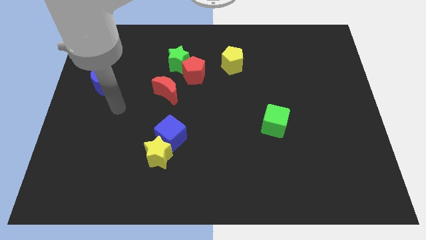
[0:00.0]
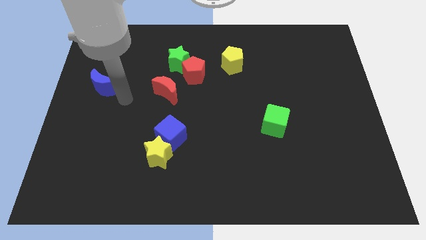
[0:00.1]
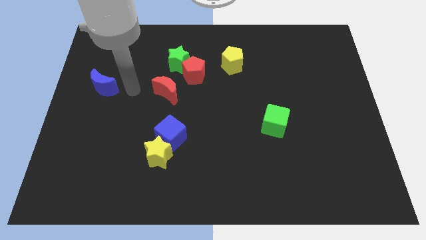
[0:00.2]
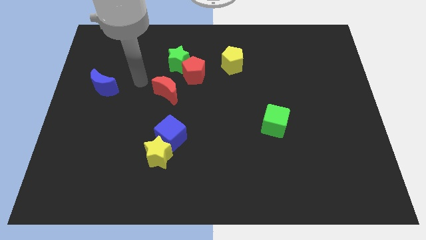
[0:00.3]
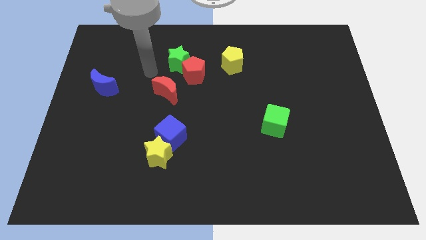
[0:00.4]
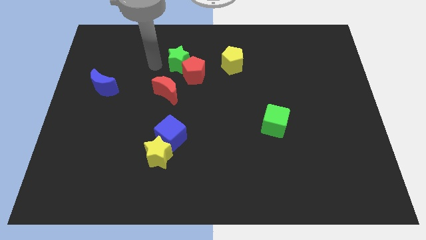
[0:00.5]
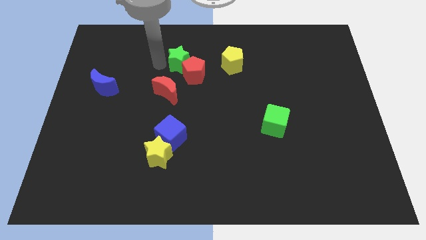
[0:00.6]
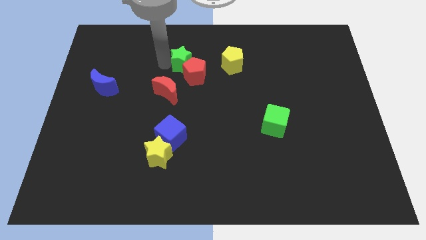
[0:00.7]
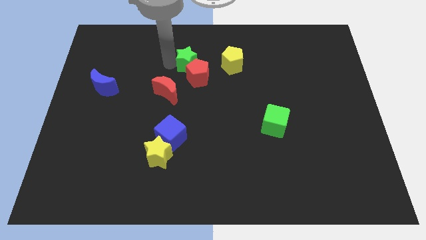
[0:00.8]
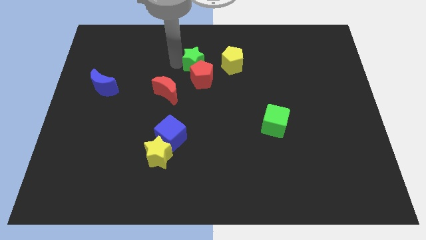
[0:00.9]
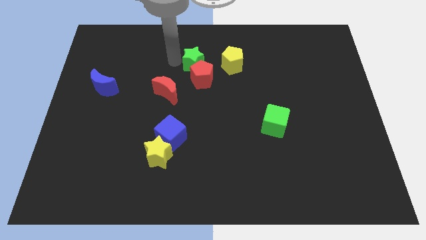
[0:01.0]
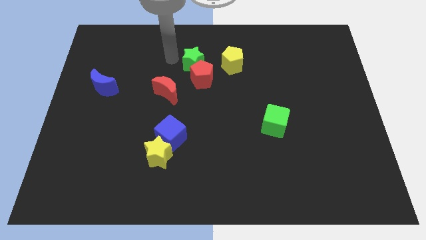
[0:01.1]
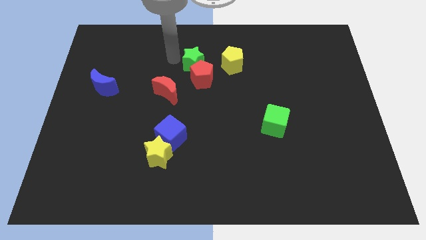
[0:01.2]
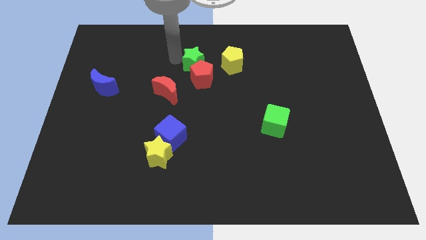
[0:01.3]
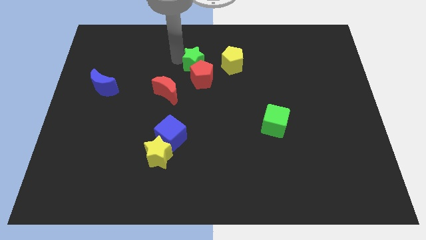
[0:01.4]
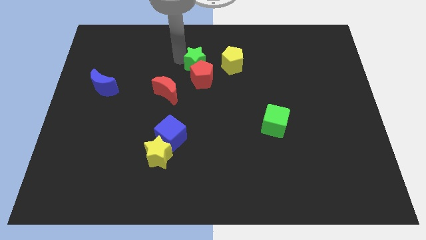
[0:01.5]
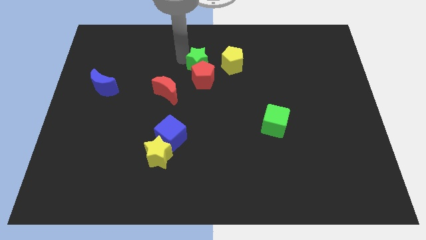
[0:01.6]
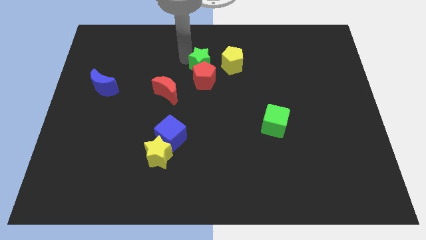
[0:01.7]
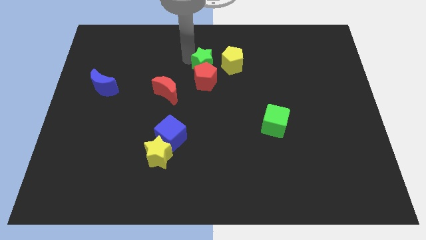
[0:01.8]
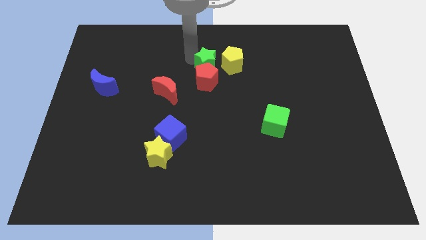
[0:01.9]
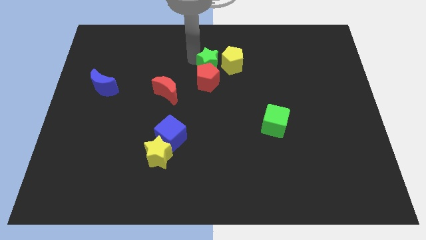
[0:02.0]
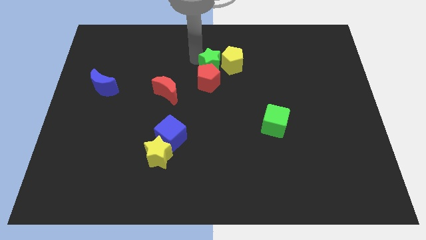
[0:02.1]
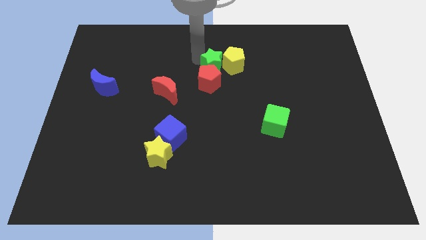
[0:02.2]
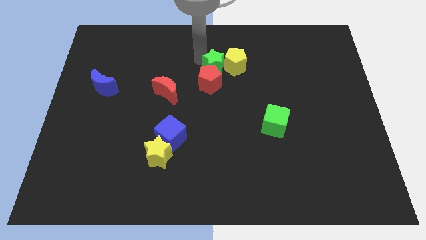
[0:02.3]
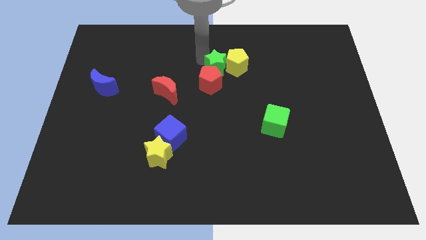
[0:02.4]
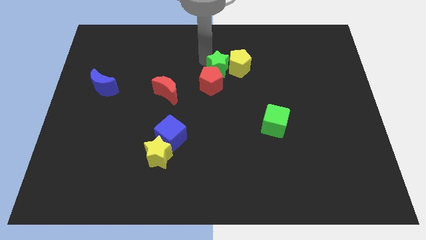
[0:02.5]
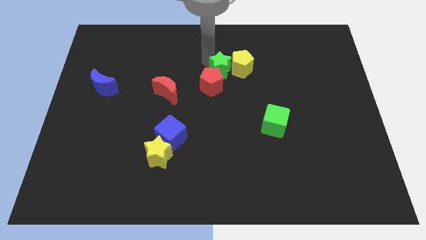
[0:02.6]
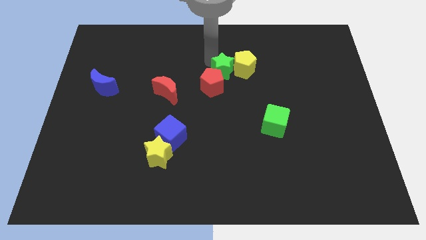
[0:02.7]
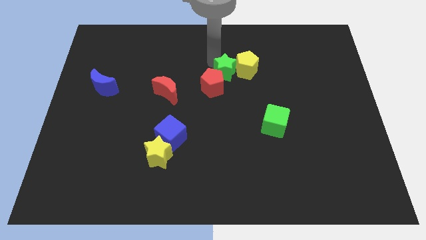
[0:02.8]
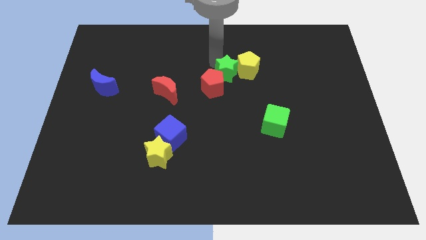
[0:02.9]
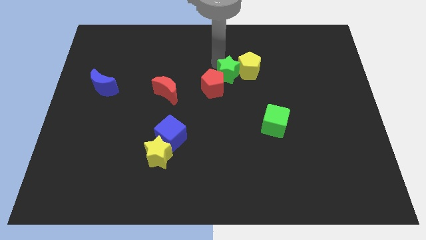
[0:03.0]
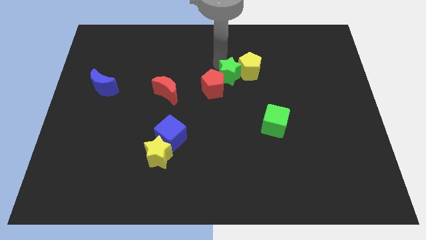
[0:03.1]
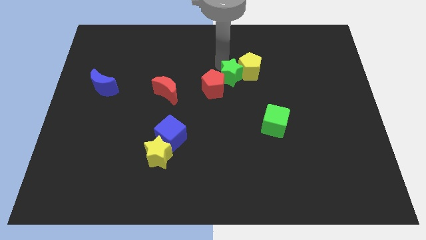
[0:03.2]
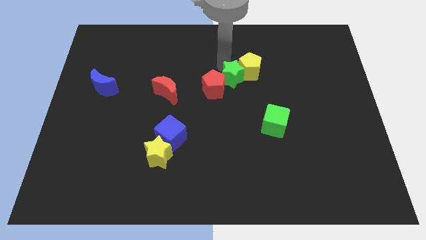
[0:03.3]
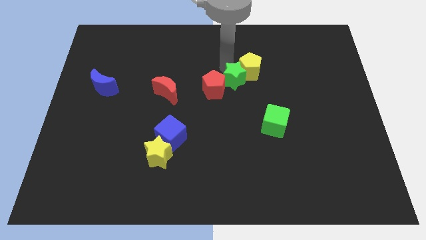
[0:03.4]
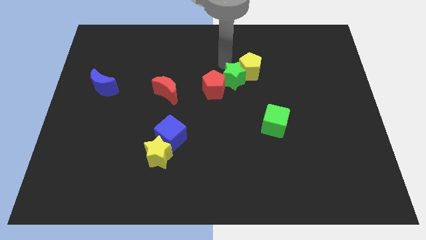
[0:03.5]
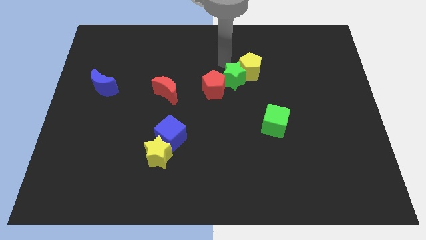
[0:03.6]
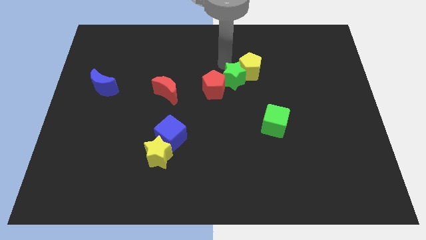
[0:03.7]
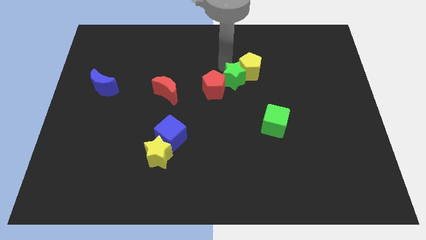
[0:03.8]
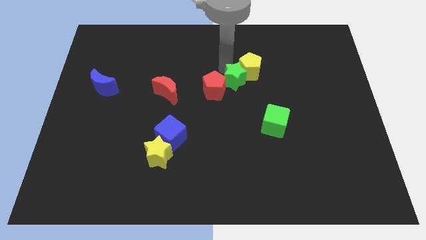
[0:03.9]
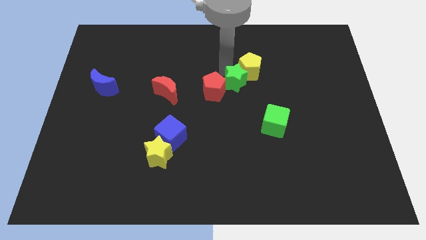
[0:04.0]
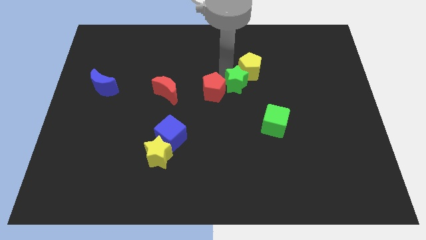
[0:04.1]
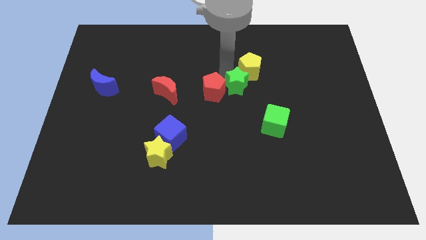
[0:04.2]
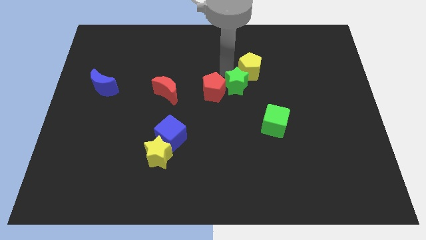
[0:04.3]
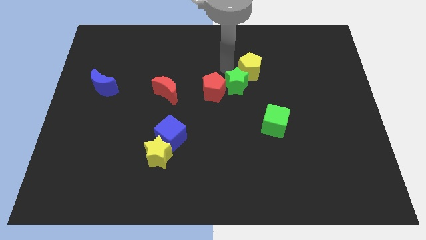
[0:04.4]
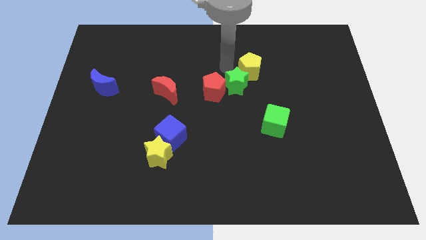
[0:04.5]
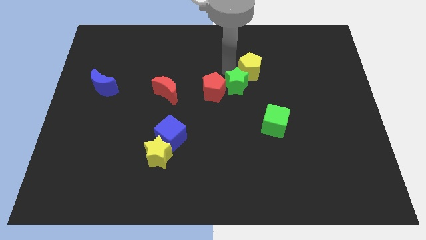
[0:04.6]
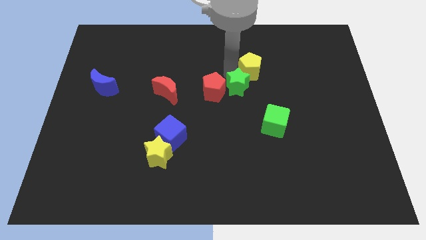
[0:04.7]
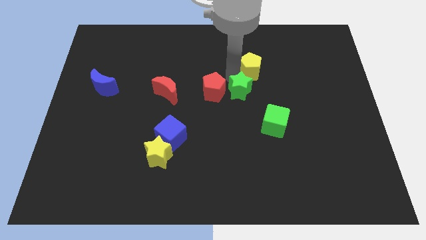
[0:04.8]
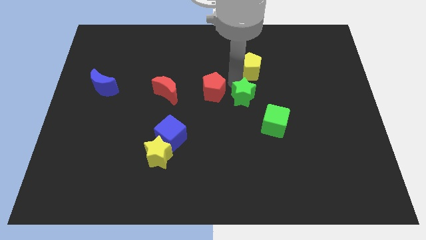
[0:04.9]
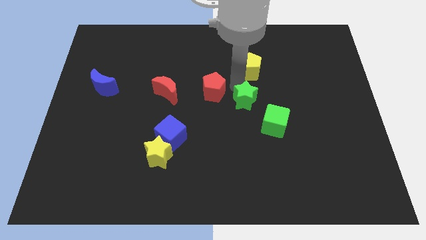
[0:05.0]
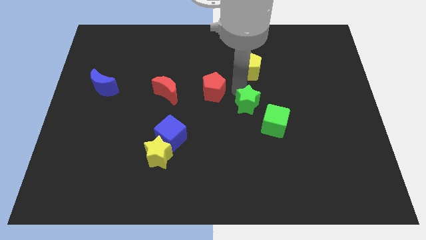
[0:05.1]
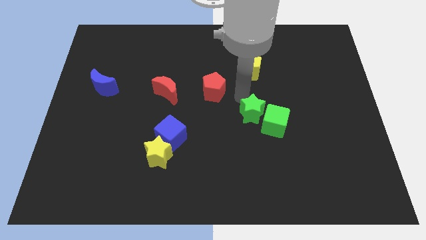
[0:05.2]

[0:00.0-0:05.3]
put the green star close to the green cube

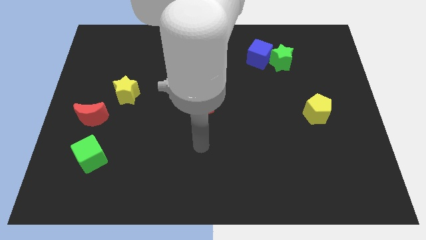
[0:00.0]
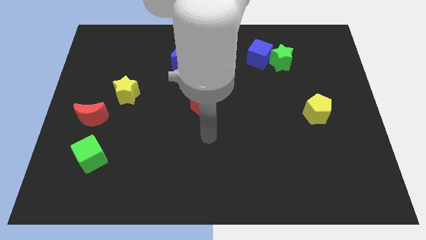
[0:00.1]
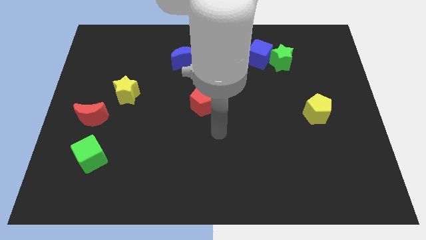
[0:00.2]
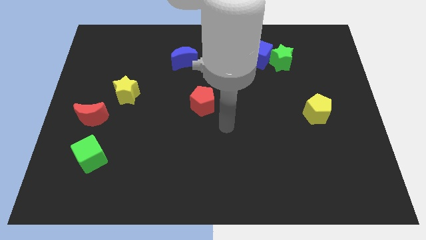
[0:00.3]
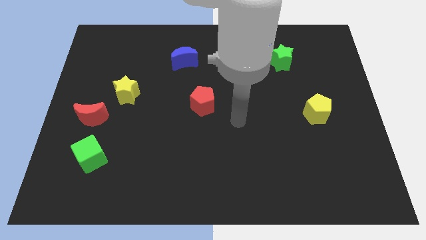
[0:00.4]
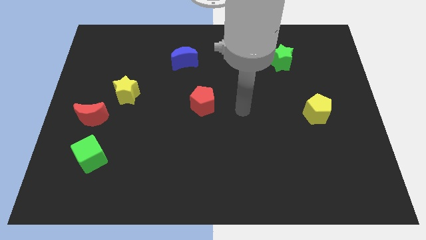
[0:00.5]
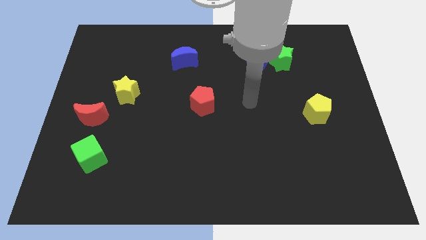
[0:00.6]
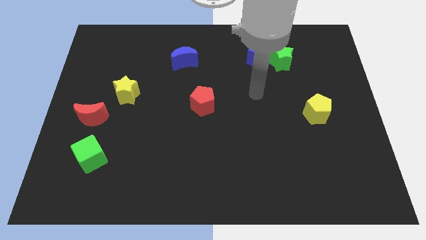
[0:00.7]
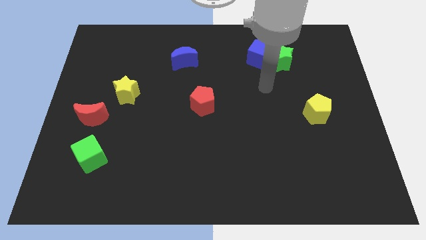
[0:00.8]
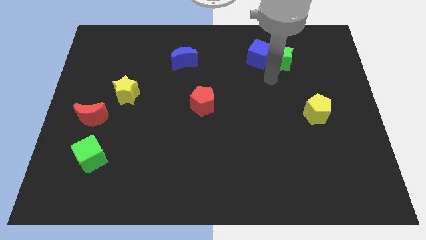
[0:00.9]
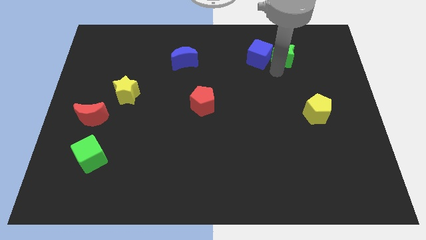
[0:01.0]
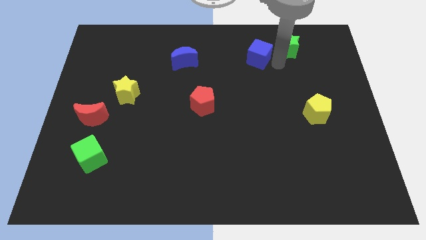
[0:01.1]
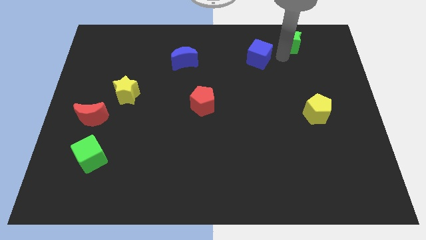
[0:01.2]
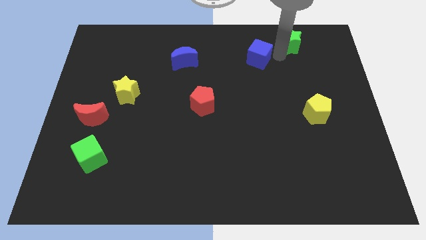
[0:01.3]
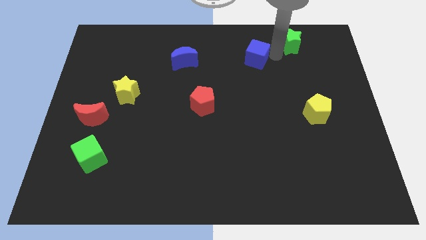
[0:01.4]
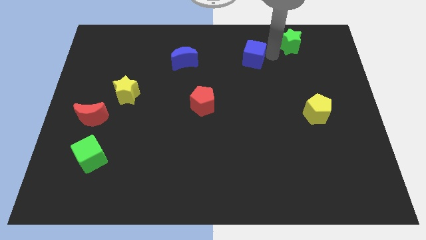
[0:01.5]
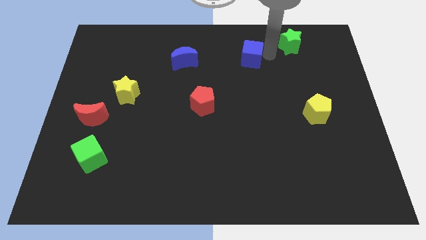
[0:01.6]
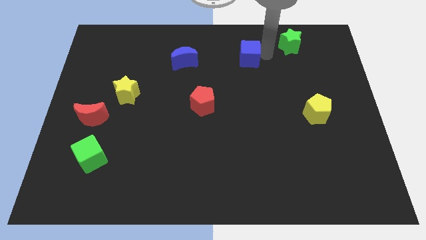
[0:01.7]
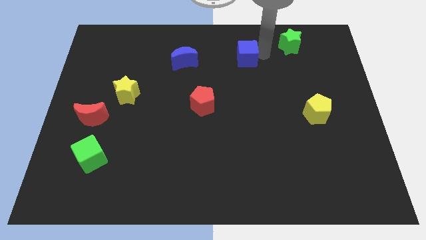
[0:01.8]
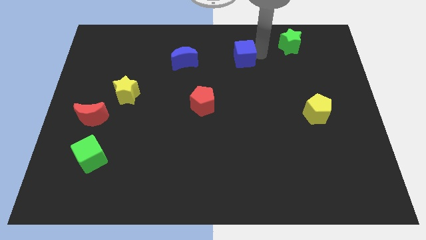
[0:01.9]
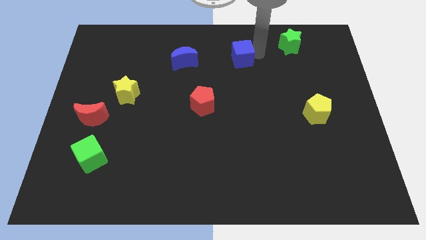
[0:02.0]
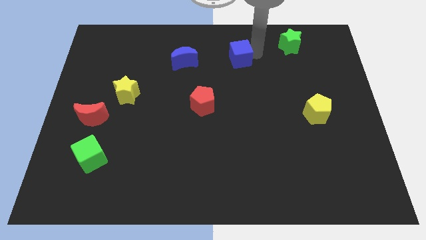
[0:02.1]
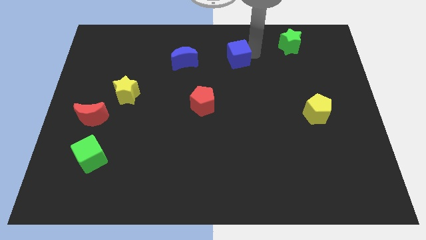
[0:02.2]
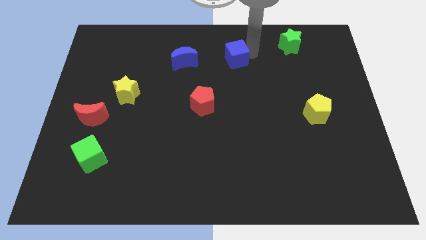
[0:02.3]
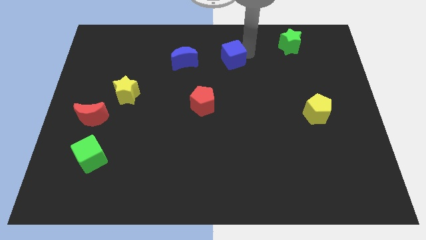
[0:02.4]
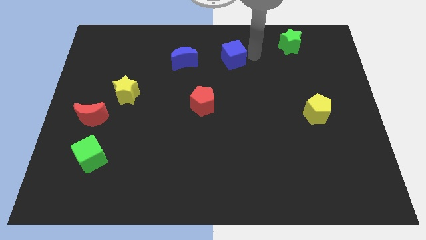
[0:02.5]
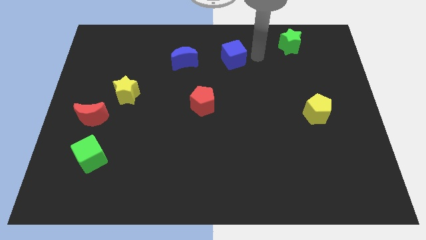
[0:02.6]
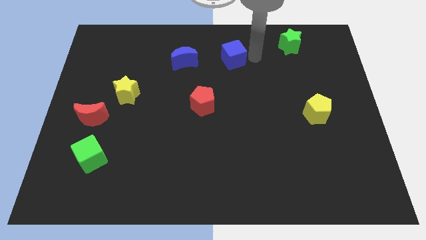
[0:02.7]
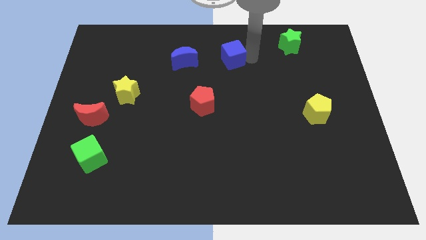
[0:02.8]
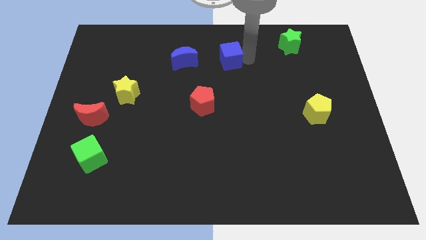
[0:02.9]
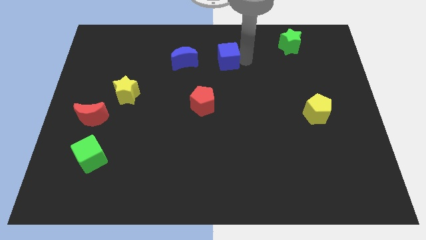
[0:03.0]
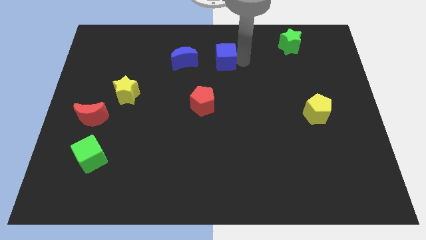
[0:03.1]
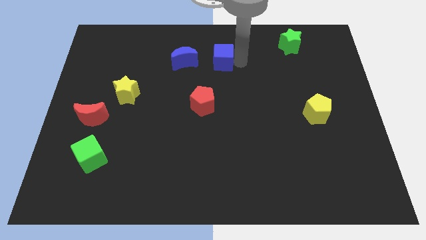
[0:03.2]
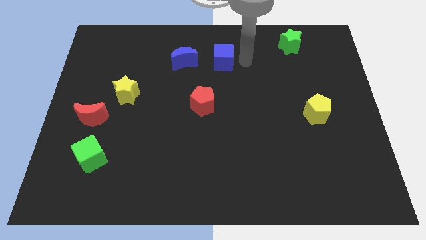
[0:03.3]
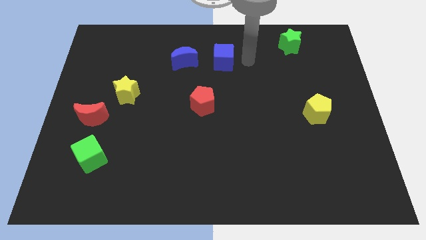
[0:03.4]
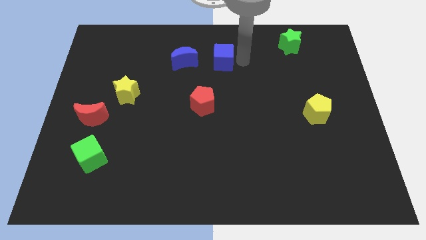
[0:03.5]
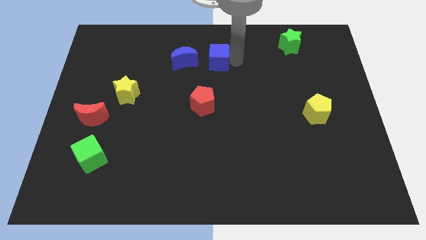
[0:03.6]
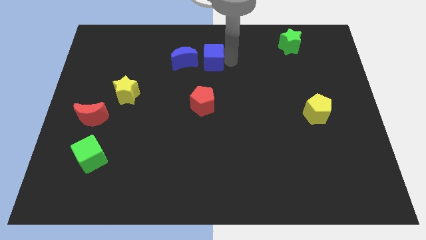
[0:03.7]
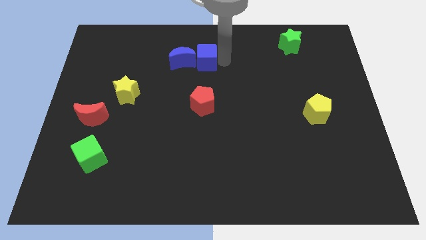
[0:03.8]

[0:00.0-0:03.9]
push the blue cube next to the blue moon
